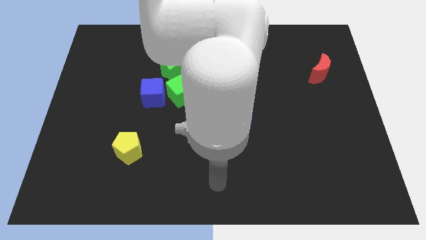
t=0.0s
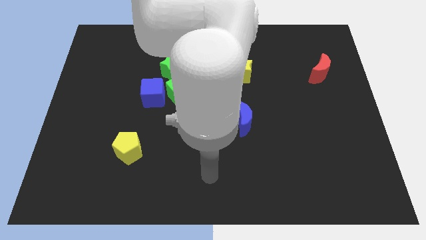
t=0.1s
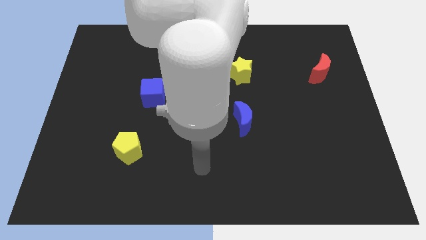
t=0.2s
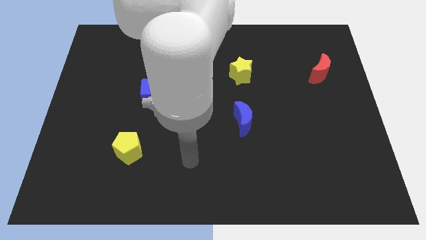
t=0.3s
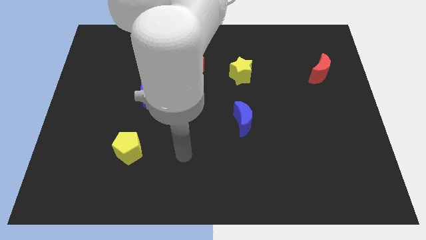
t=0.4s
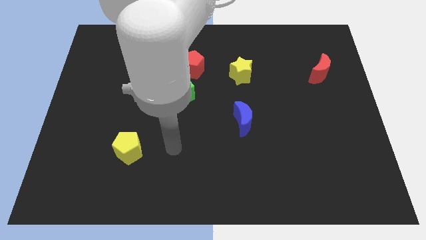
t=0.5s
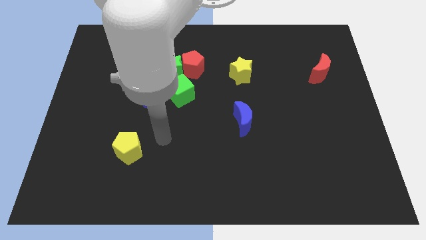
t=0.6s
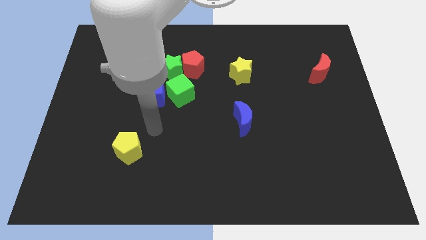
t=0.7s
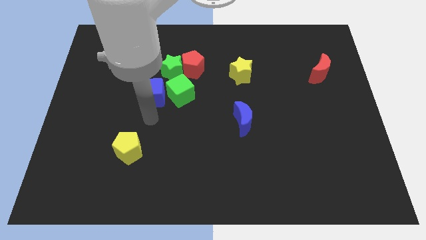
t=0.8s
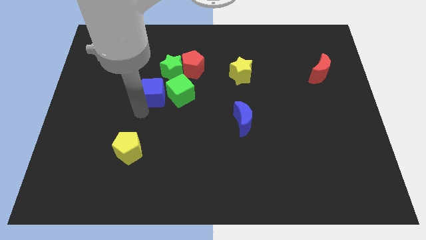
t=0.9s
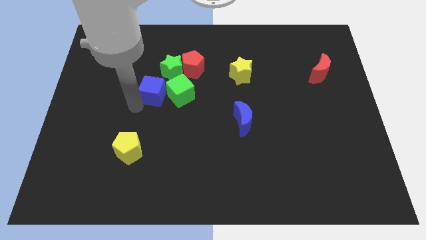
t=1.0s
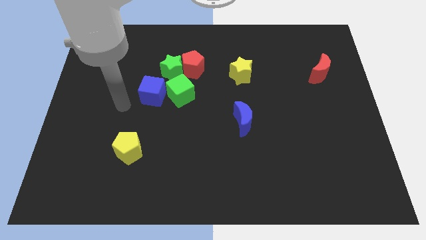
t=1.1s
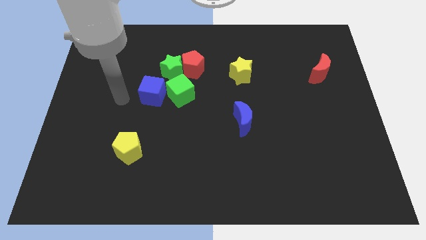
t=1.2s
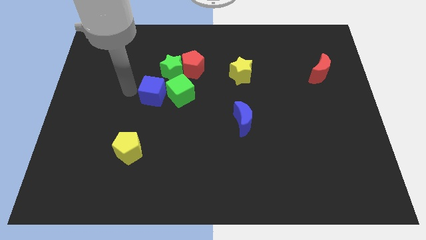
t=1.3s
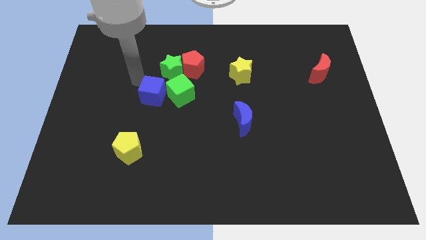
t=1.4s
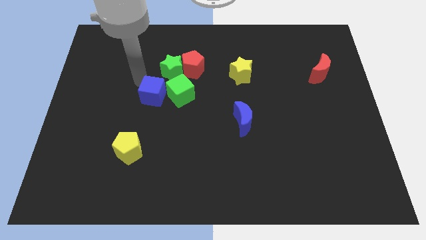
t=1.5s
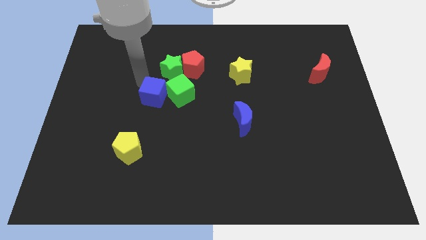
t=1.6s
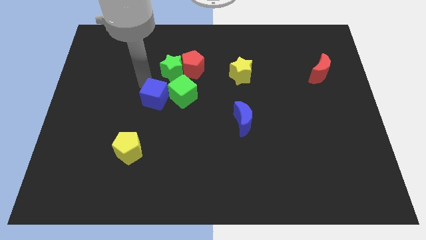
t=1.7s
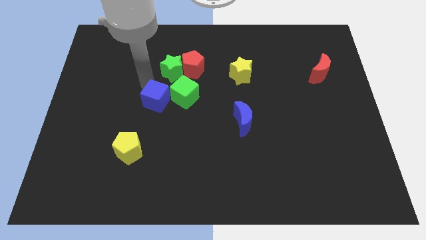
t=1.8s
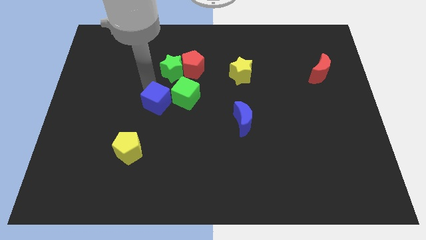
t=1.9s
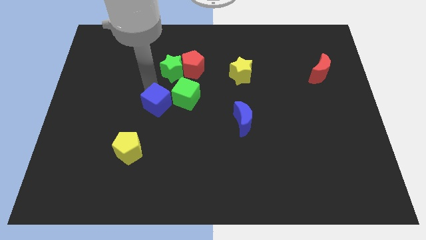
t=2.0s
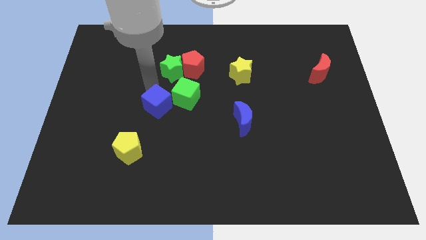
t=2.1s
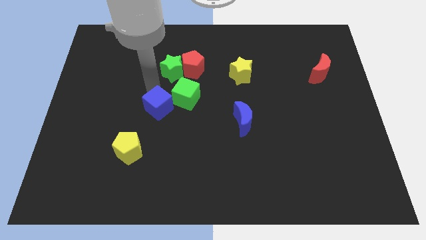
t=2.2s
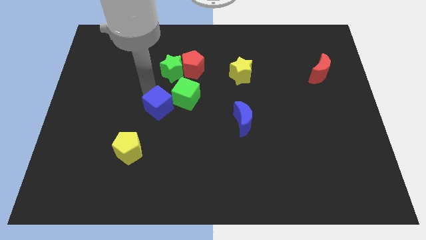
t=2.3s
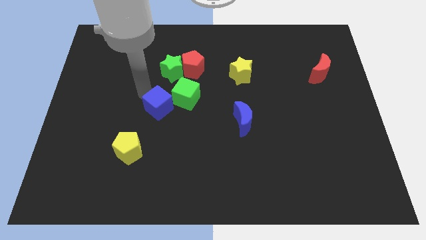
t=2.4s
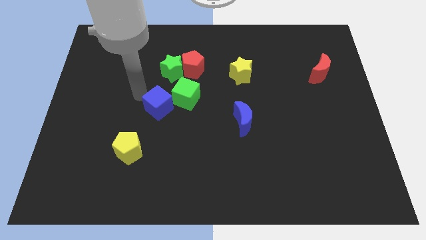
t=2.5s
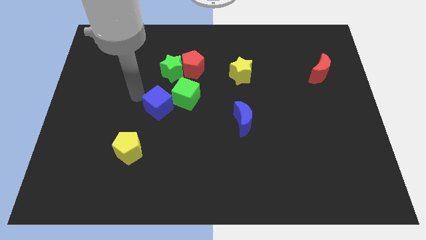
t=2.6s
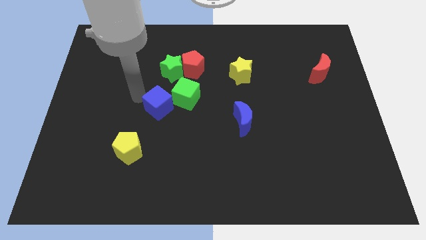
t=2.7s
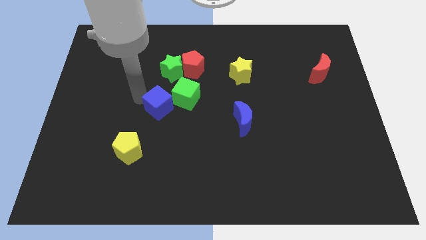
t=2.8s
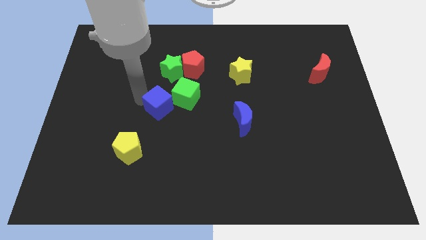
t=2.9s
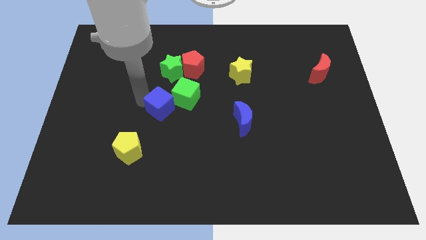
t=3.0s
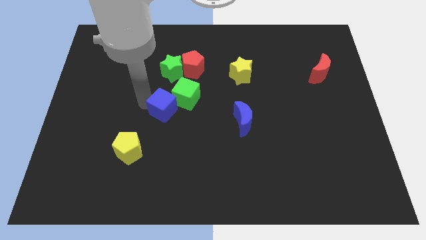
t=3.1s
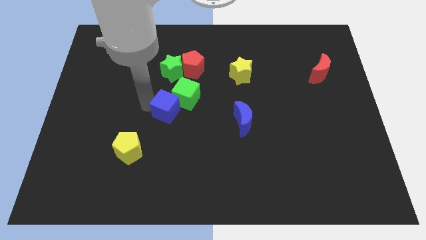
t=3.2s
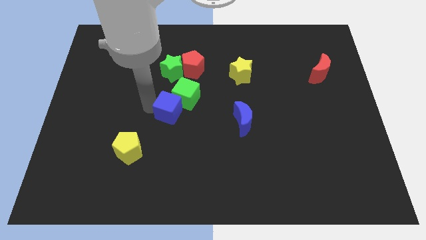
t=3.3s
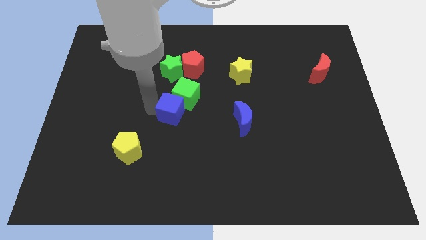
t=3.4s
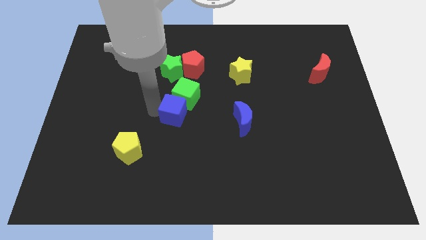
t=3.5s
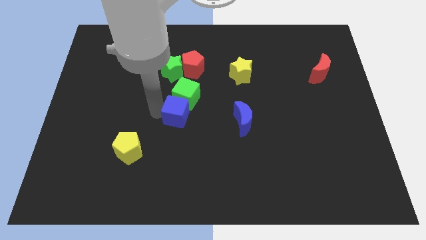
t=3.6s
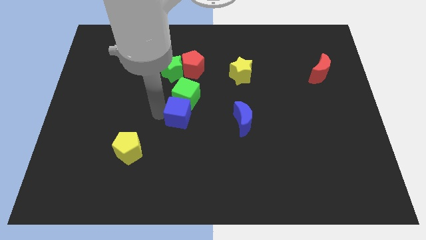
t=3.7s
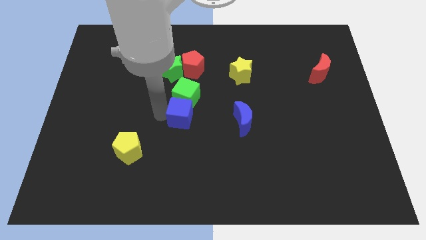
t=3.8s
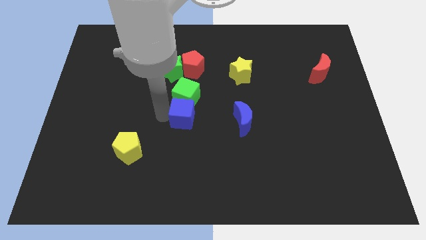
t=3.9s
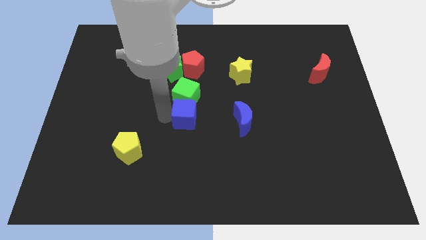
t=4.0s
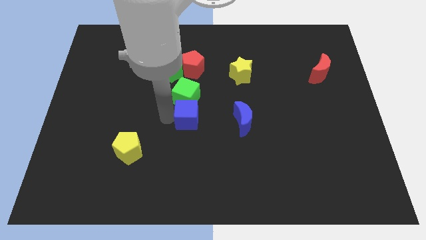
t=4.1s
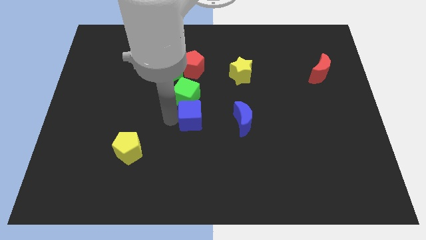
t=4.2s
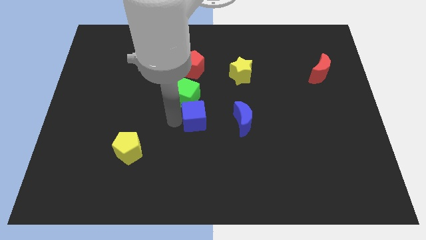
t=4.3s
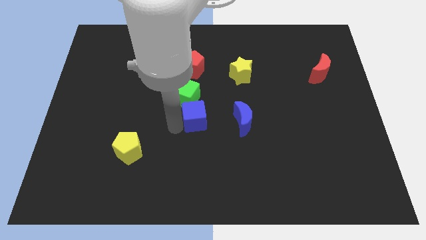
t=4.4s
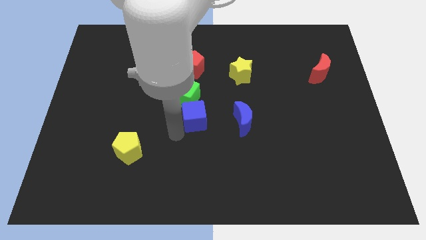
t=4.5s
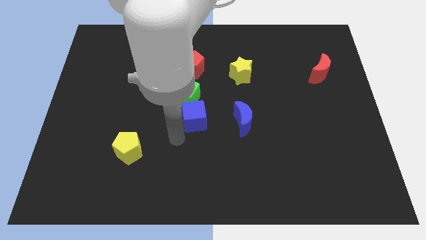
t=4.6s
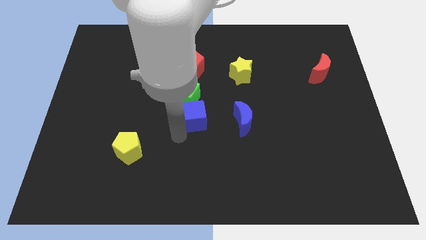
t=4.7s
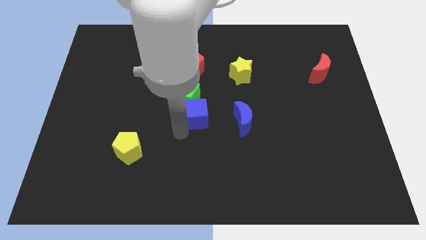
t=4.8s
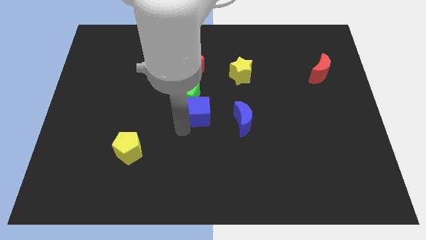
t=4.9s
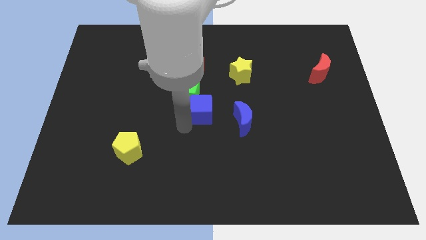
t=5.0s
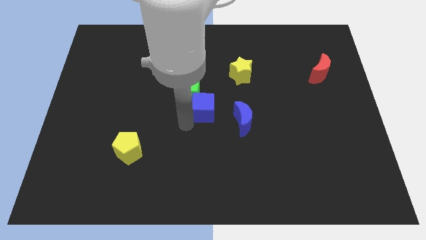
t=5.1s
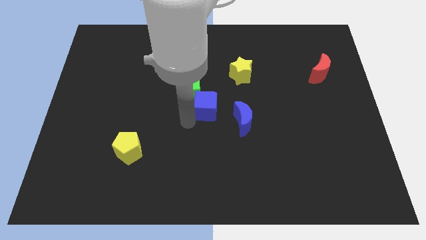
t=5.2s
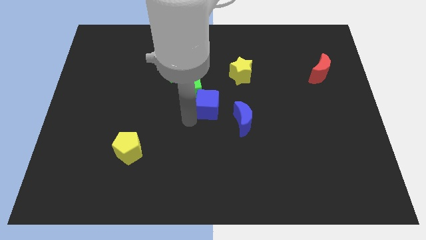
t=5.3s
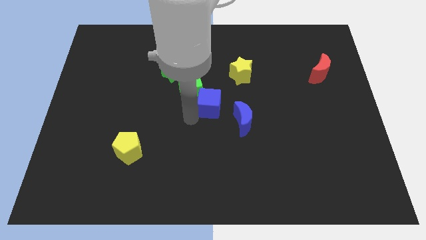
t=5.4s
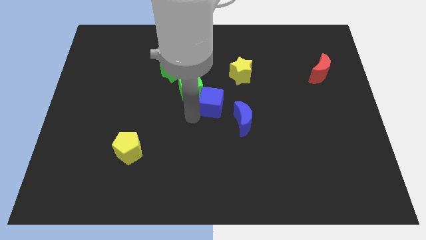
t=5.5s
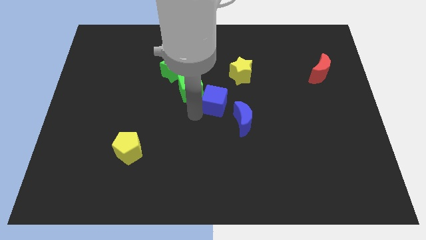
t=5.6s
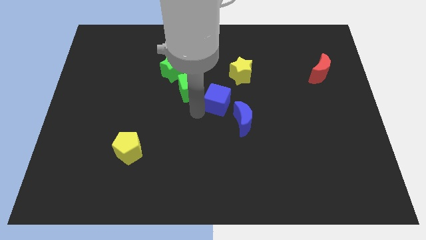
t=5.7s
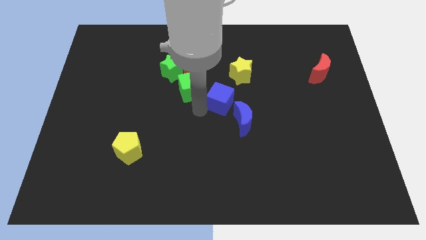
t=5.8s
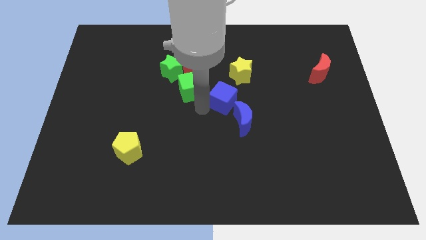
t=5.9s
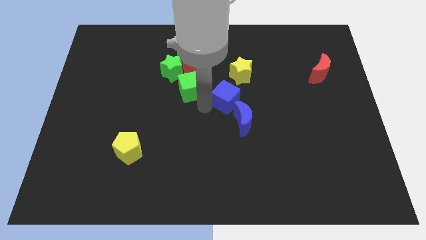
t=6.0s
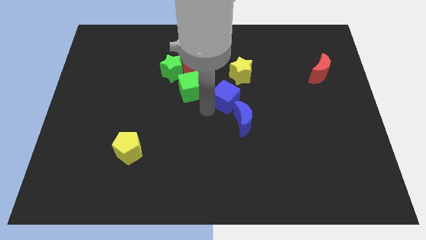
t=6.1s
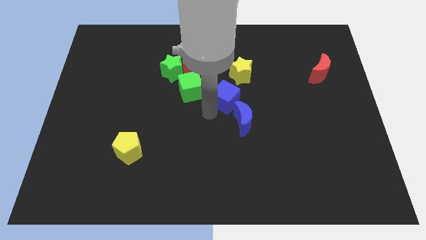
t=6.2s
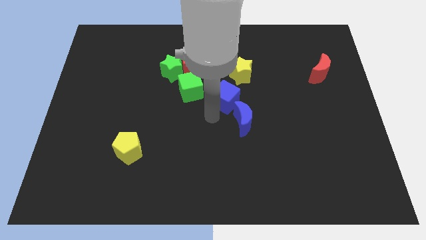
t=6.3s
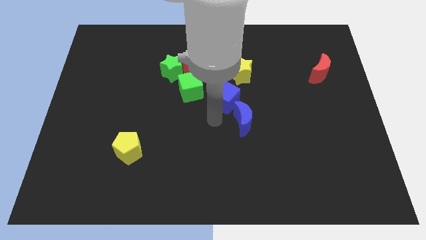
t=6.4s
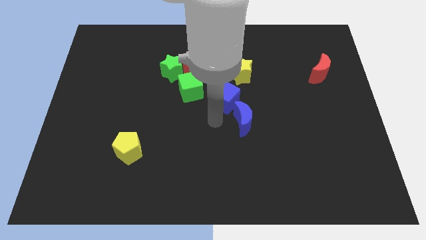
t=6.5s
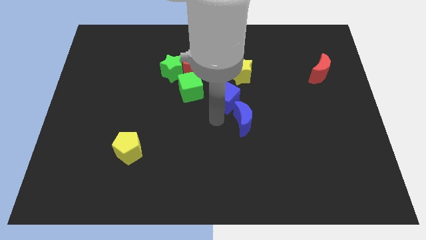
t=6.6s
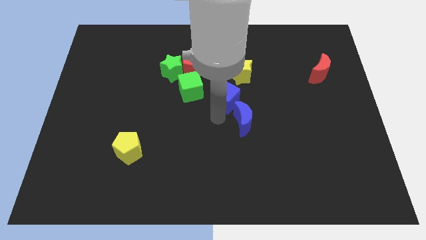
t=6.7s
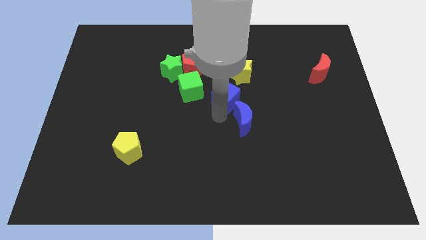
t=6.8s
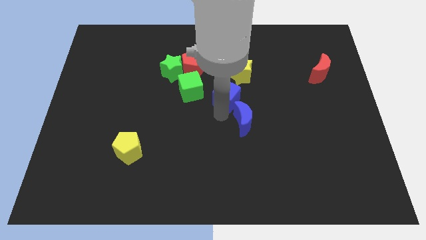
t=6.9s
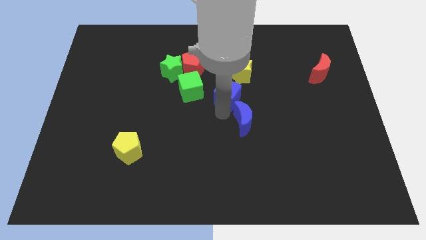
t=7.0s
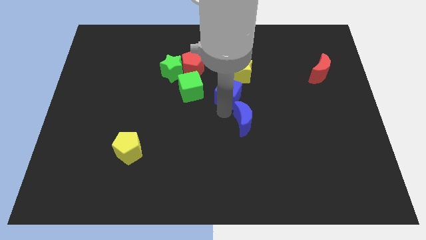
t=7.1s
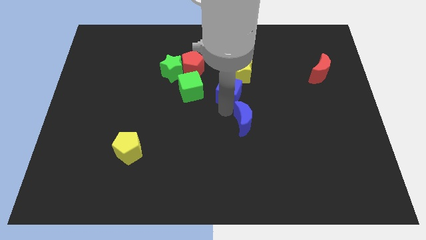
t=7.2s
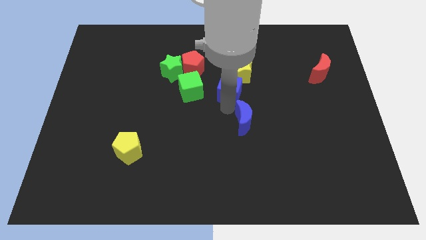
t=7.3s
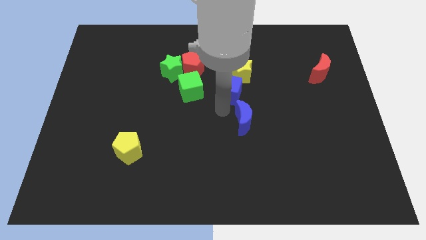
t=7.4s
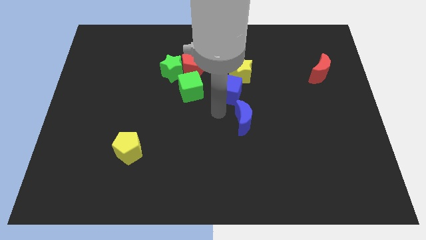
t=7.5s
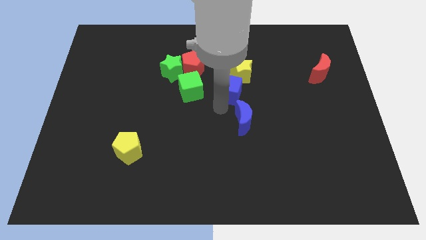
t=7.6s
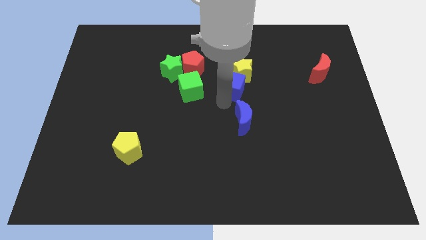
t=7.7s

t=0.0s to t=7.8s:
slide the blue cube towards the yellow star
